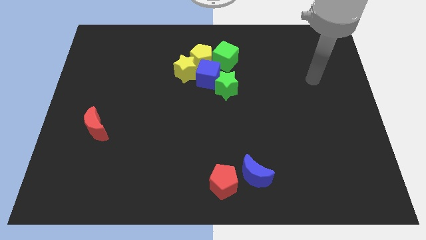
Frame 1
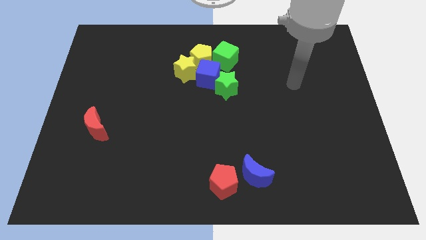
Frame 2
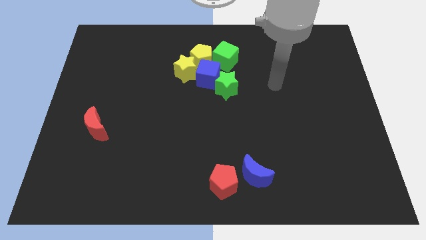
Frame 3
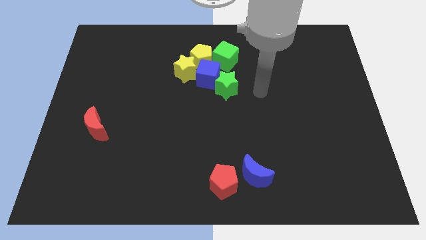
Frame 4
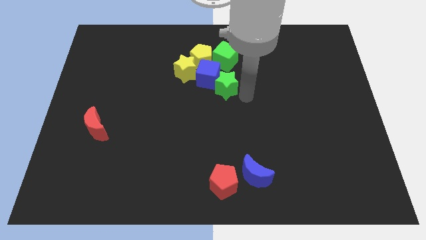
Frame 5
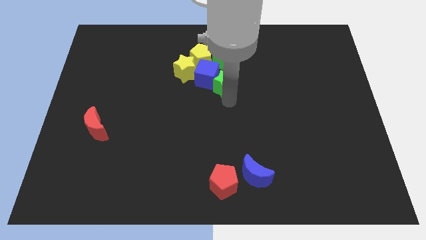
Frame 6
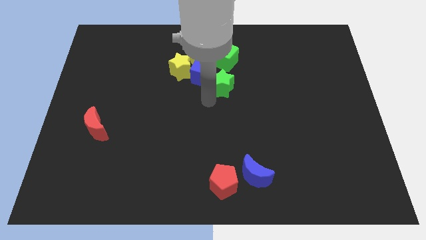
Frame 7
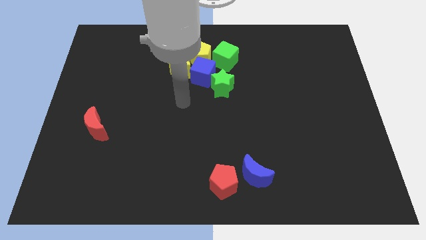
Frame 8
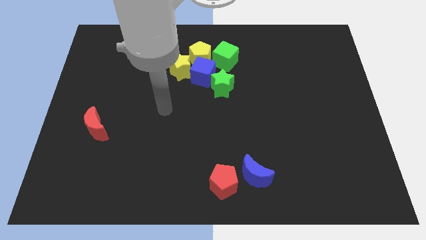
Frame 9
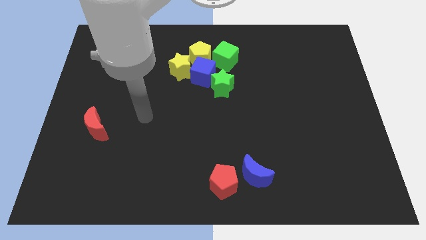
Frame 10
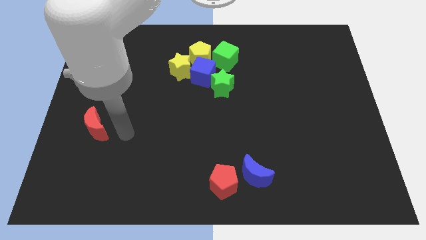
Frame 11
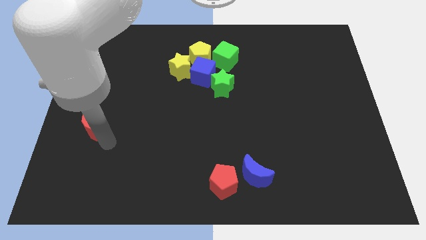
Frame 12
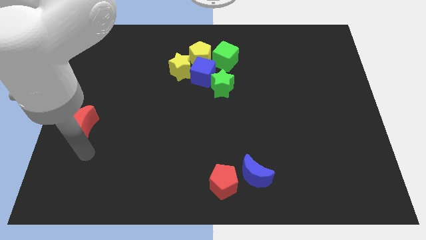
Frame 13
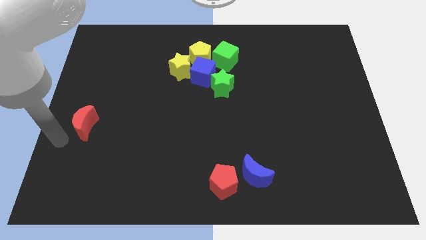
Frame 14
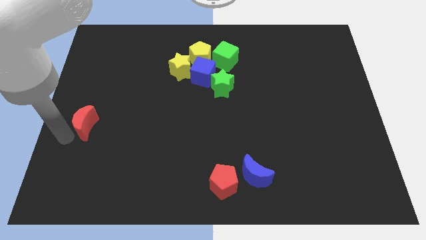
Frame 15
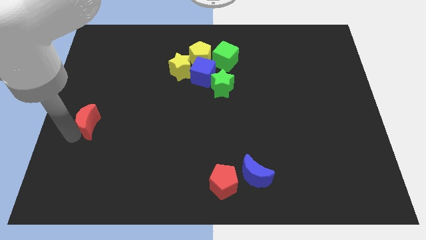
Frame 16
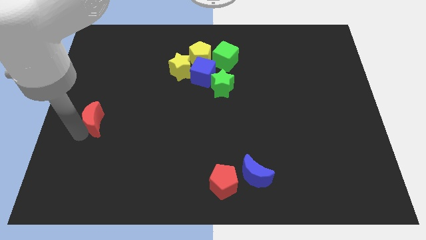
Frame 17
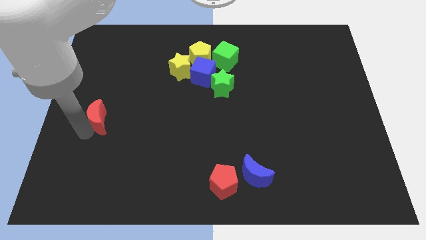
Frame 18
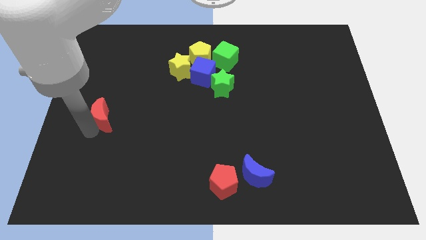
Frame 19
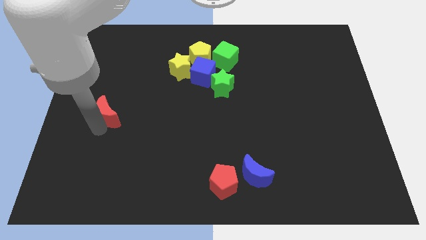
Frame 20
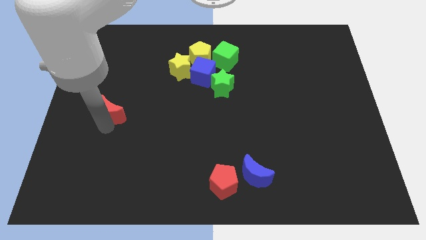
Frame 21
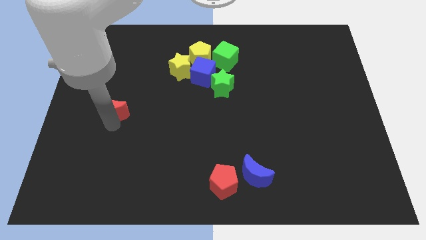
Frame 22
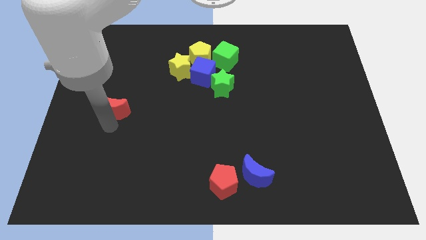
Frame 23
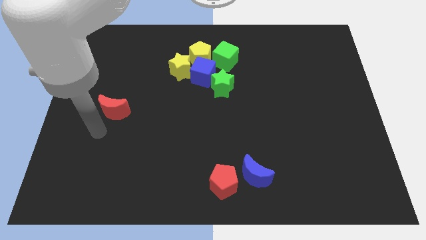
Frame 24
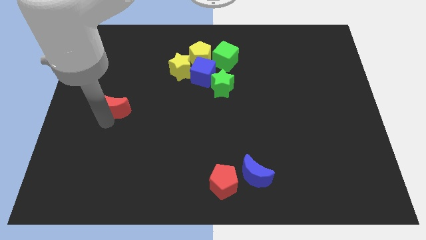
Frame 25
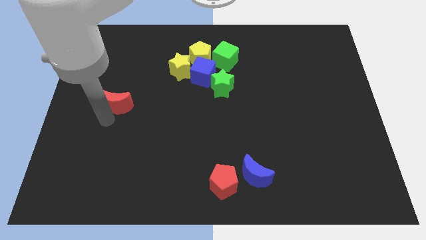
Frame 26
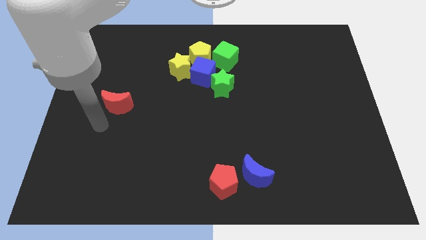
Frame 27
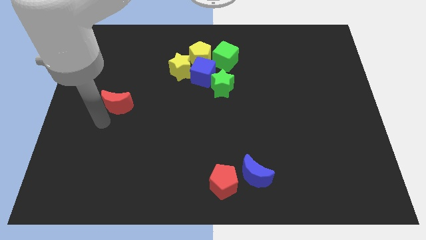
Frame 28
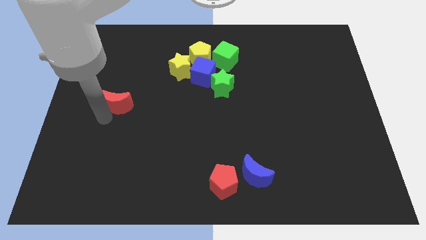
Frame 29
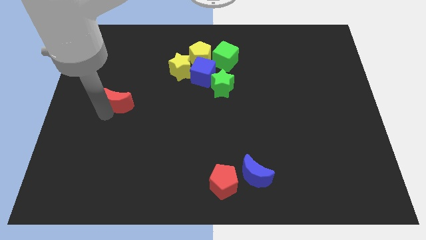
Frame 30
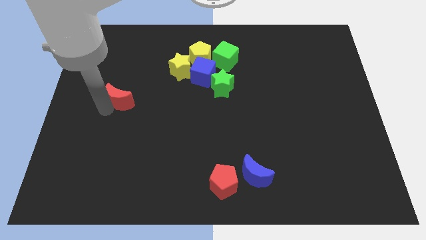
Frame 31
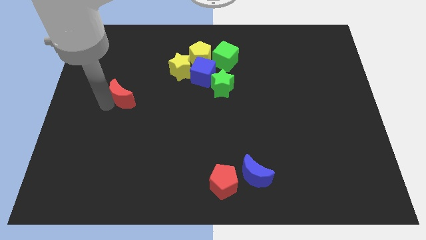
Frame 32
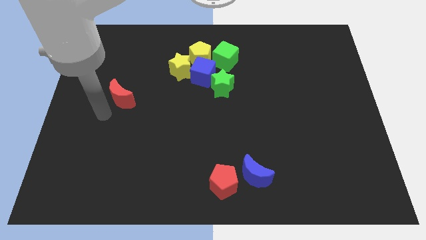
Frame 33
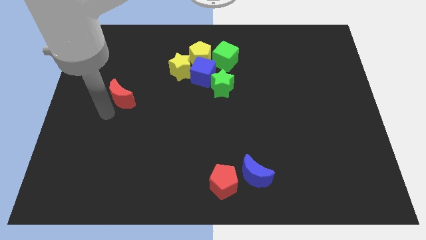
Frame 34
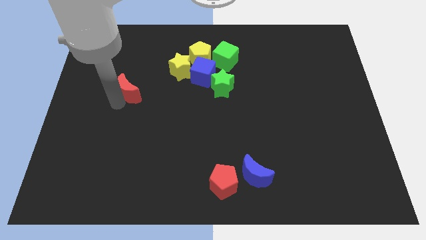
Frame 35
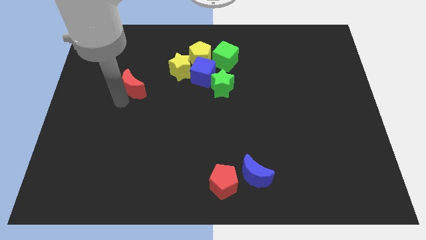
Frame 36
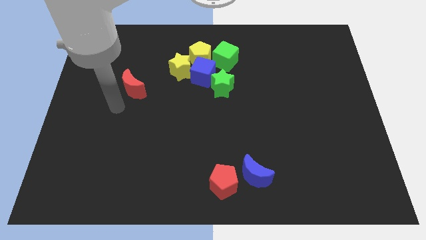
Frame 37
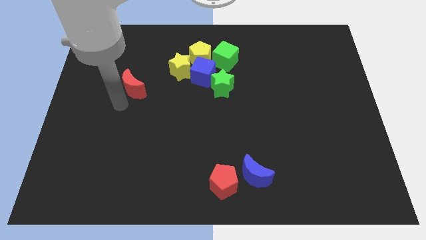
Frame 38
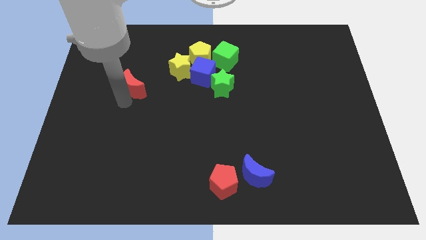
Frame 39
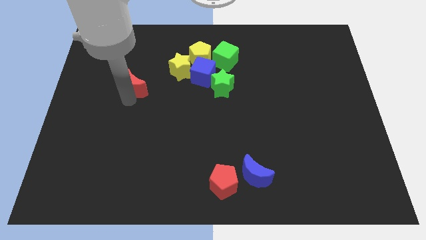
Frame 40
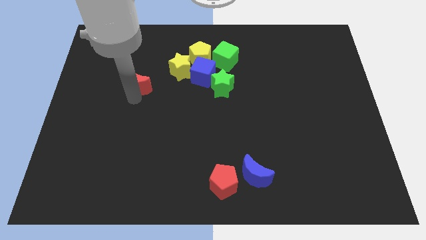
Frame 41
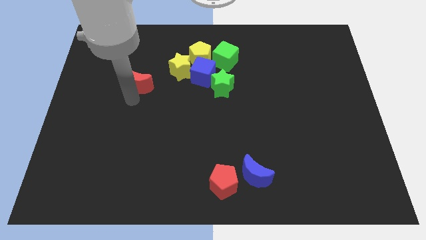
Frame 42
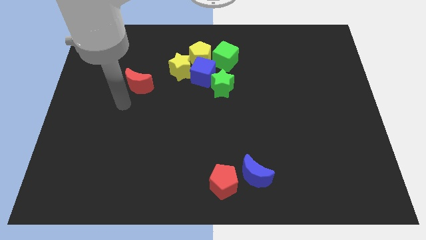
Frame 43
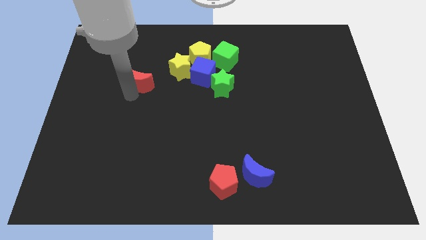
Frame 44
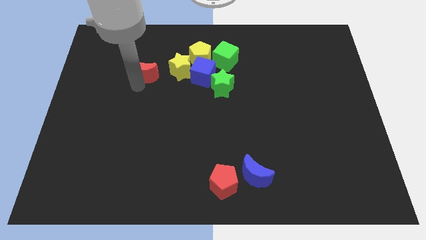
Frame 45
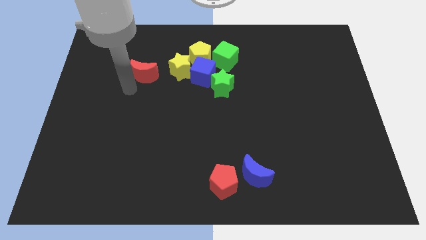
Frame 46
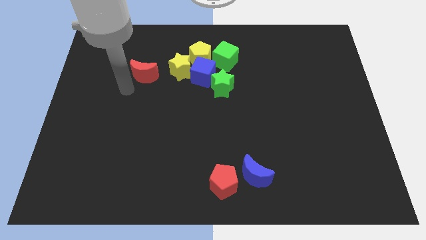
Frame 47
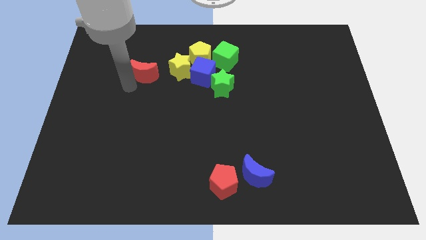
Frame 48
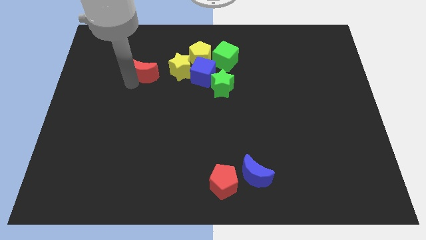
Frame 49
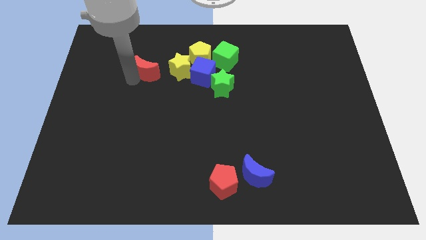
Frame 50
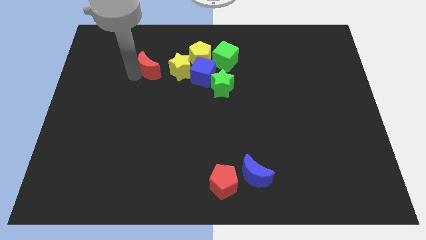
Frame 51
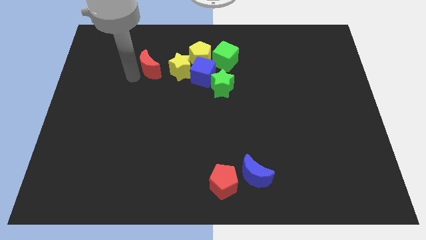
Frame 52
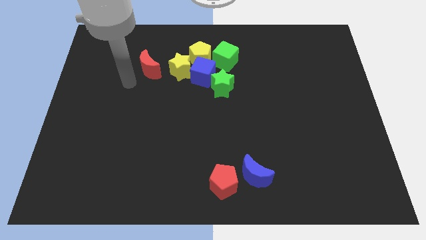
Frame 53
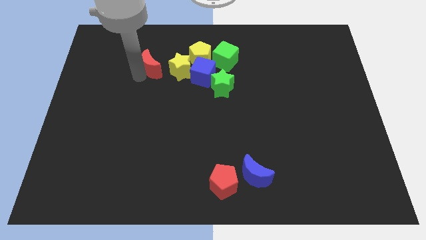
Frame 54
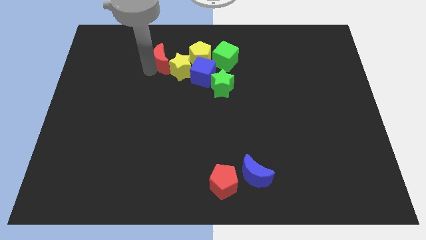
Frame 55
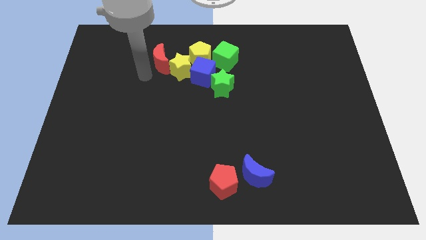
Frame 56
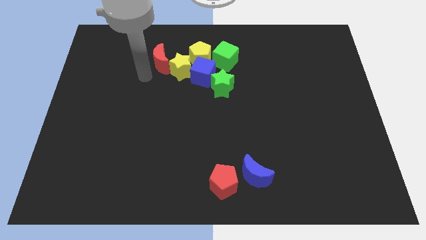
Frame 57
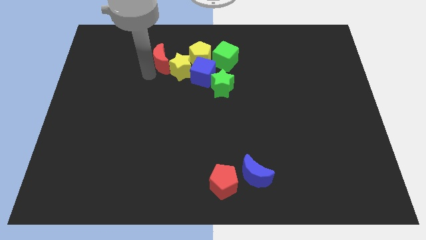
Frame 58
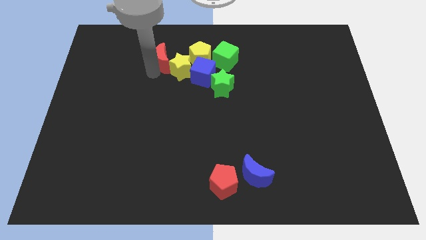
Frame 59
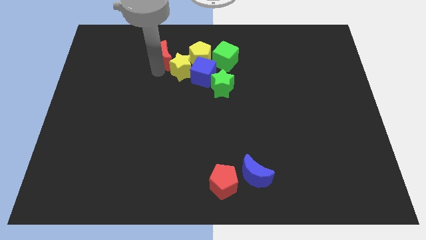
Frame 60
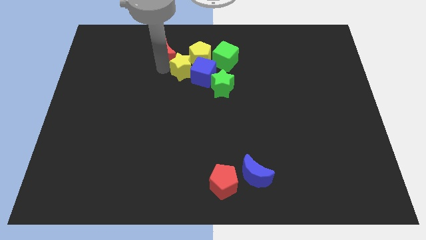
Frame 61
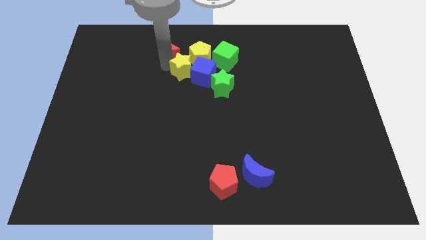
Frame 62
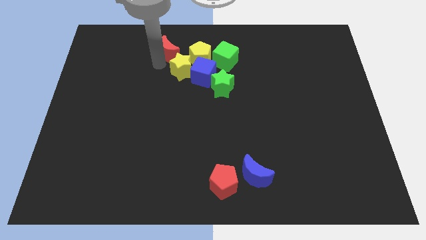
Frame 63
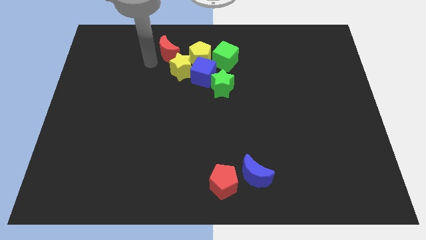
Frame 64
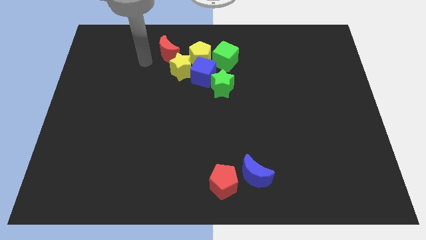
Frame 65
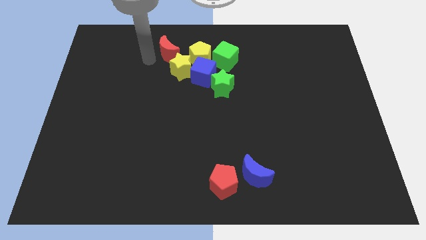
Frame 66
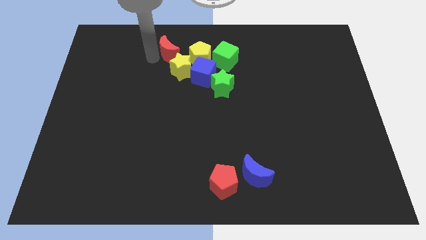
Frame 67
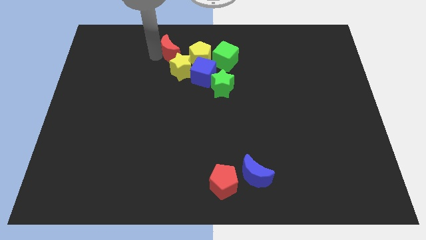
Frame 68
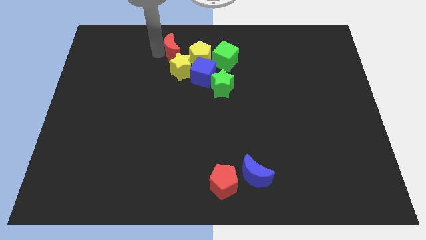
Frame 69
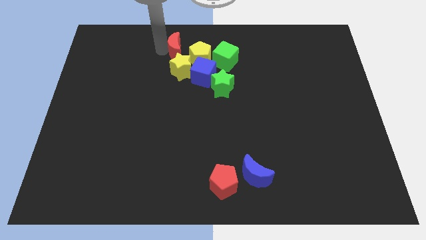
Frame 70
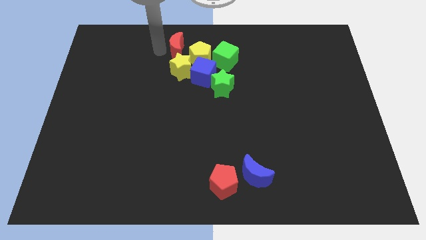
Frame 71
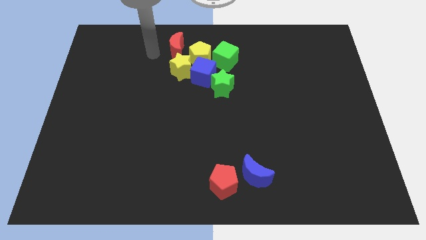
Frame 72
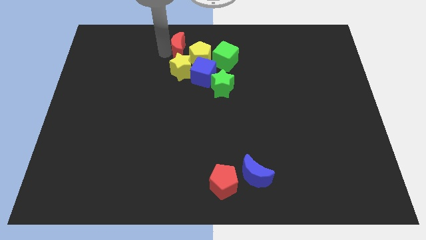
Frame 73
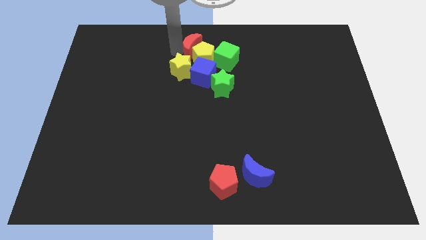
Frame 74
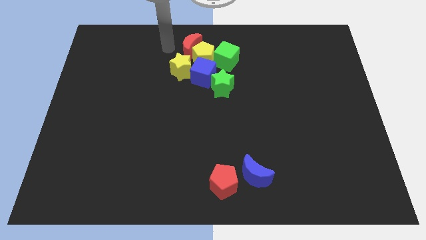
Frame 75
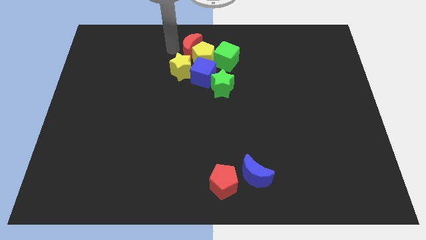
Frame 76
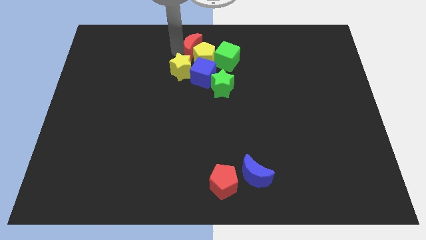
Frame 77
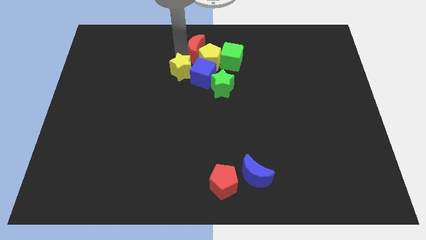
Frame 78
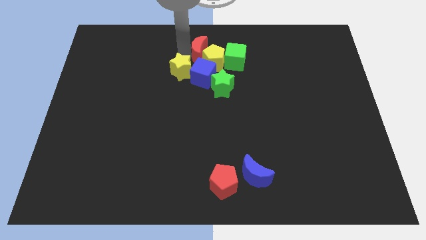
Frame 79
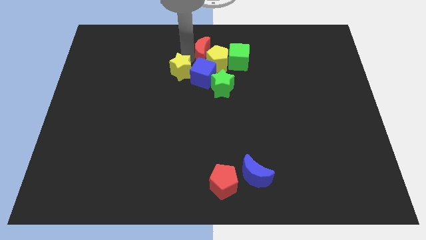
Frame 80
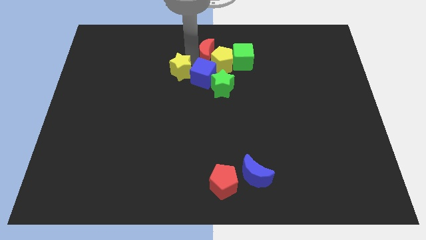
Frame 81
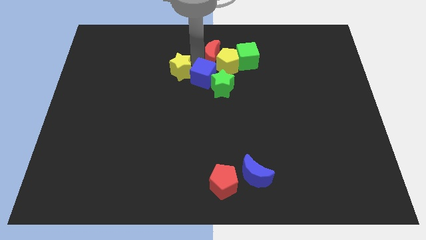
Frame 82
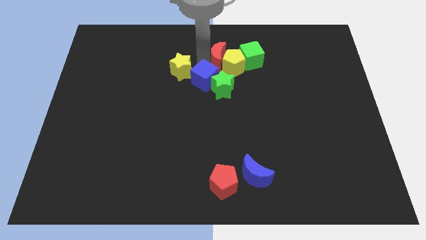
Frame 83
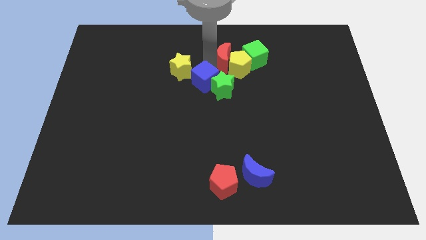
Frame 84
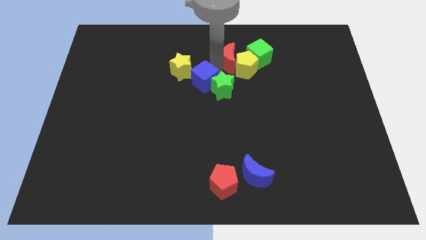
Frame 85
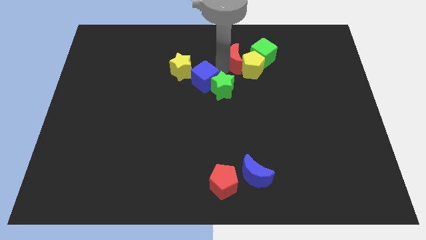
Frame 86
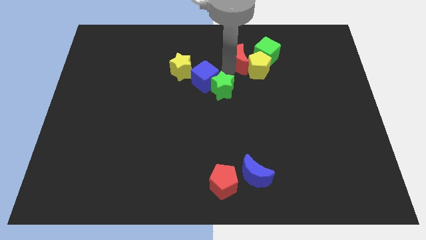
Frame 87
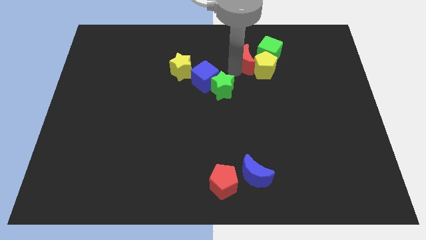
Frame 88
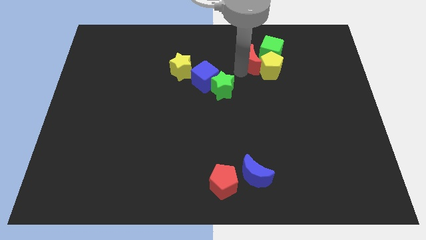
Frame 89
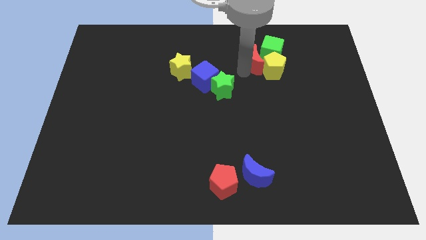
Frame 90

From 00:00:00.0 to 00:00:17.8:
move the red moon to the green cube
